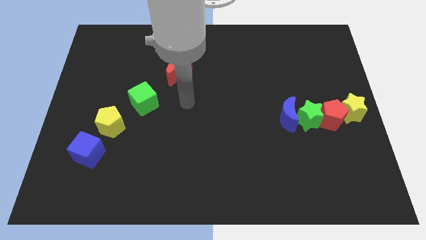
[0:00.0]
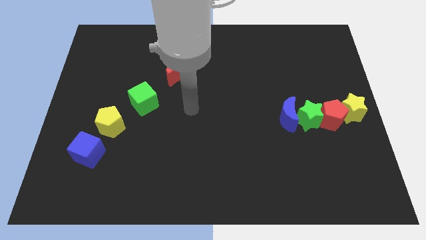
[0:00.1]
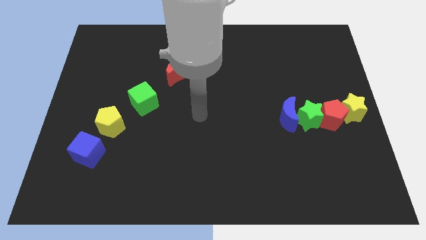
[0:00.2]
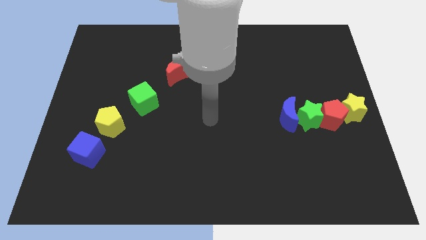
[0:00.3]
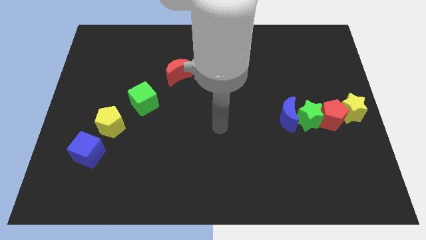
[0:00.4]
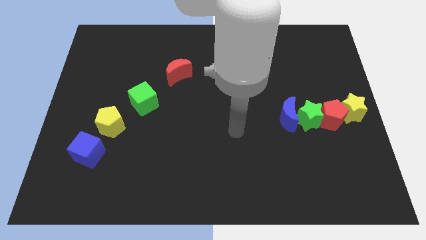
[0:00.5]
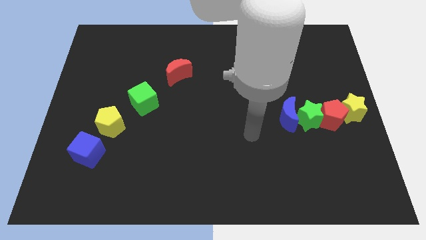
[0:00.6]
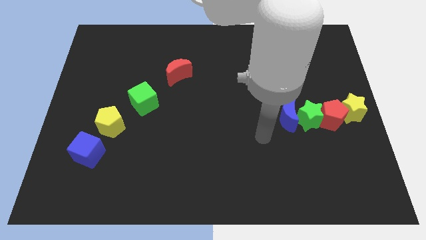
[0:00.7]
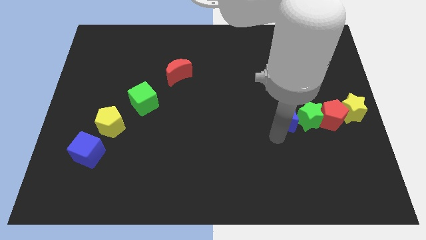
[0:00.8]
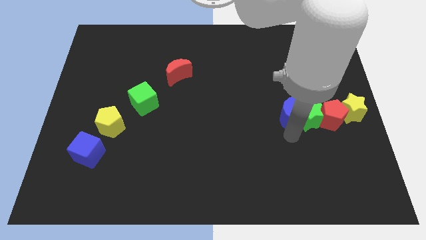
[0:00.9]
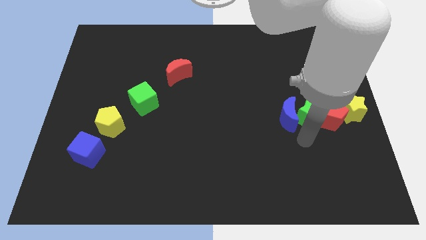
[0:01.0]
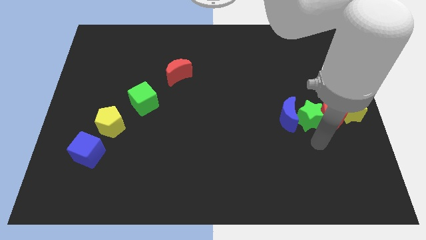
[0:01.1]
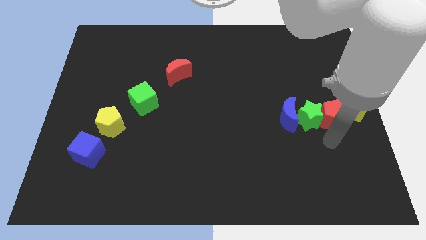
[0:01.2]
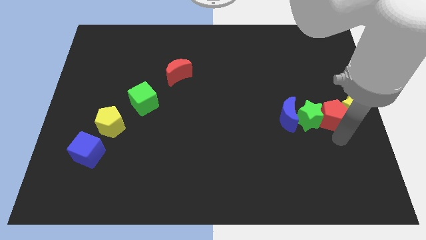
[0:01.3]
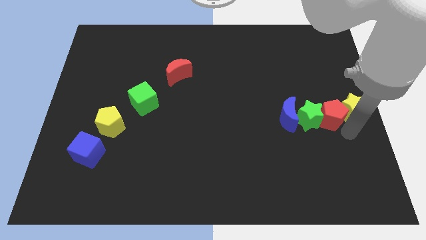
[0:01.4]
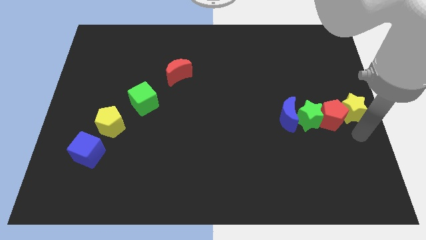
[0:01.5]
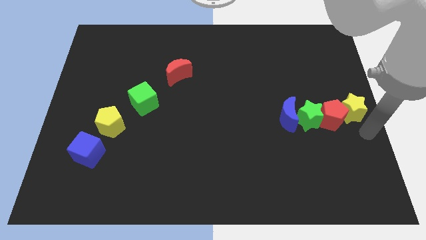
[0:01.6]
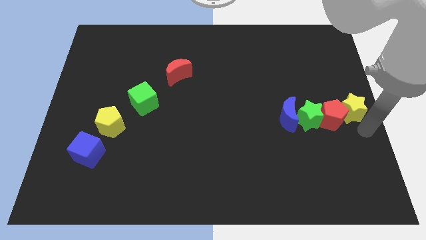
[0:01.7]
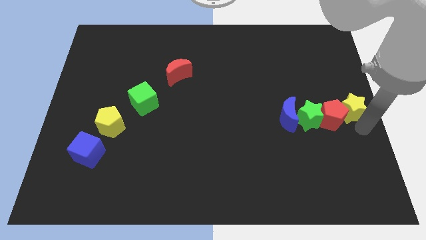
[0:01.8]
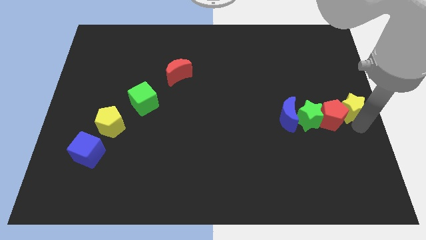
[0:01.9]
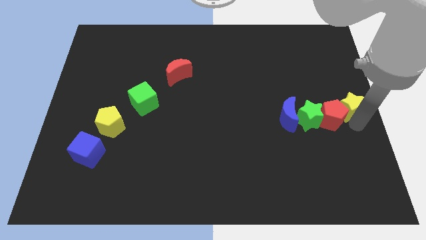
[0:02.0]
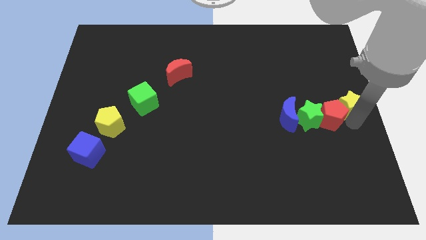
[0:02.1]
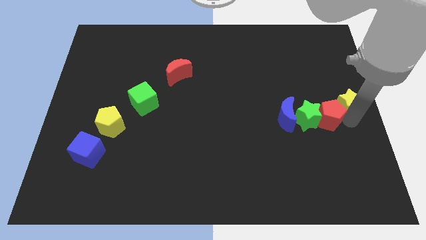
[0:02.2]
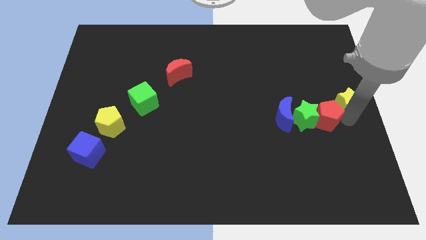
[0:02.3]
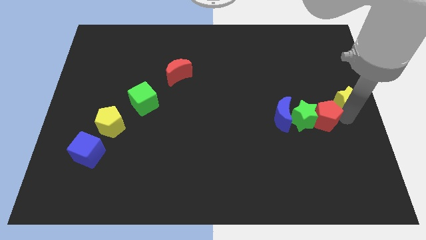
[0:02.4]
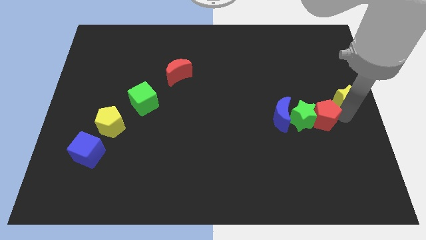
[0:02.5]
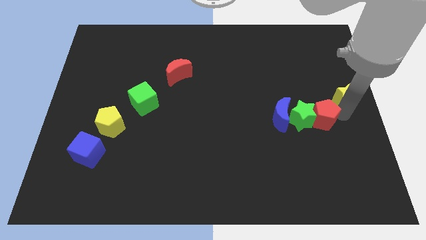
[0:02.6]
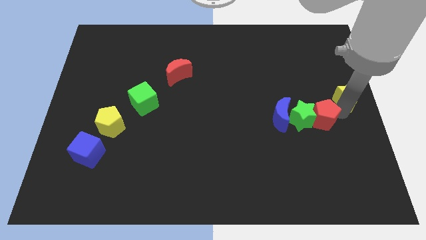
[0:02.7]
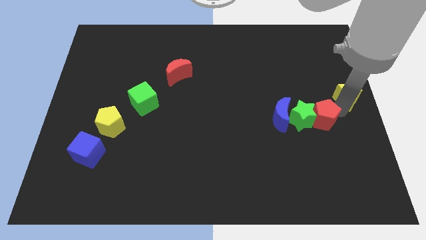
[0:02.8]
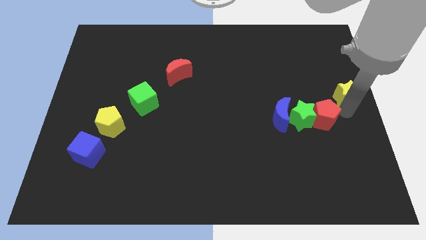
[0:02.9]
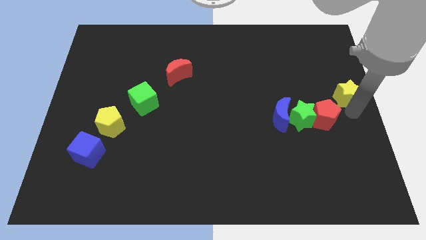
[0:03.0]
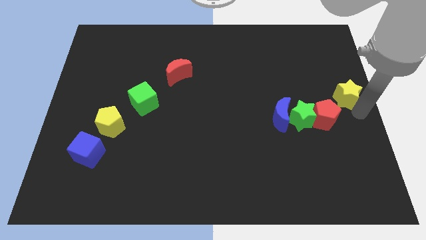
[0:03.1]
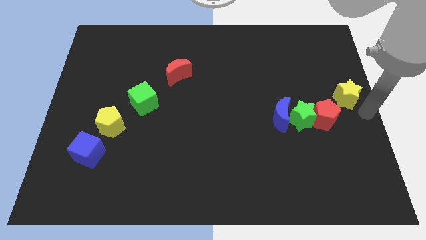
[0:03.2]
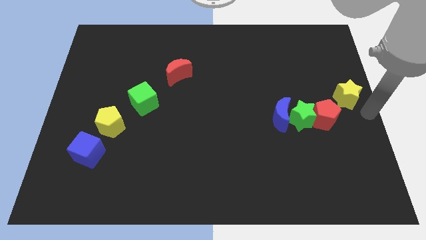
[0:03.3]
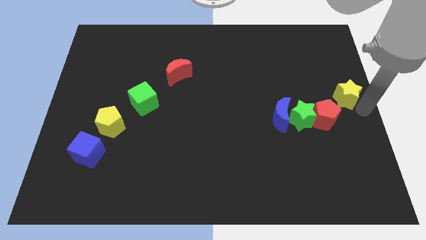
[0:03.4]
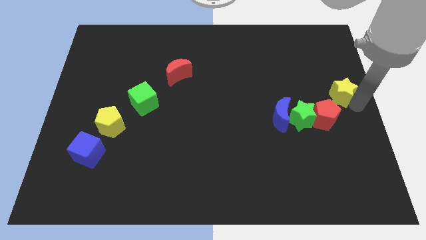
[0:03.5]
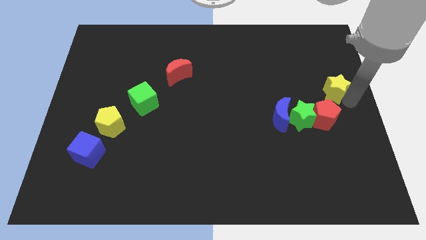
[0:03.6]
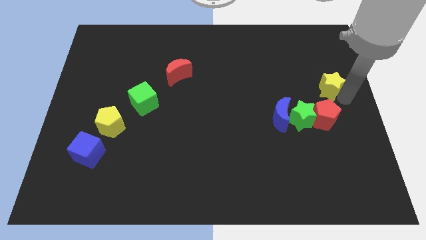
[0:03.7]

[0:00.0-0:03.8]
push the yellow star somewhat up and to the left

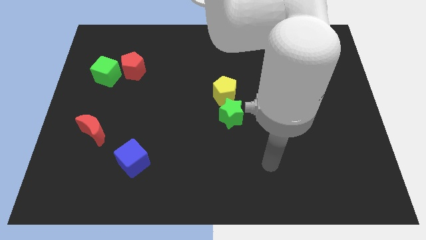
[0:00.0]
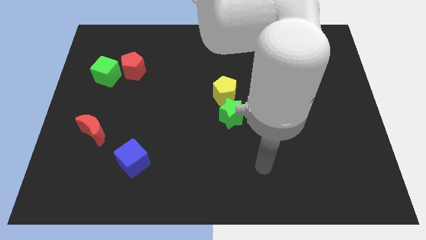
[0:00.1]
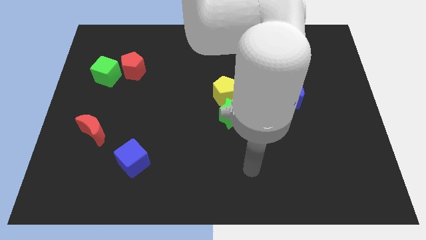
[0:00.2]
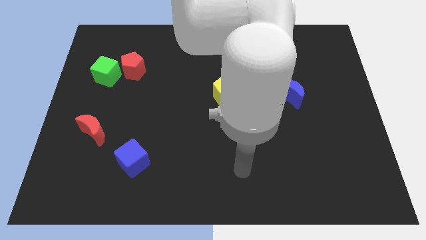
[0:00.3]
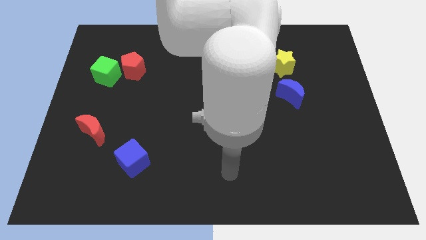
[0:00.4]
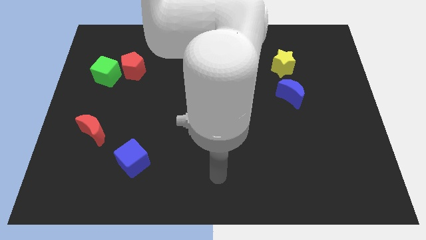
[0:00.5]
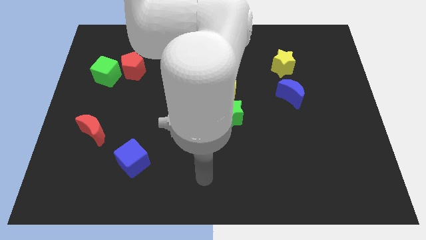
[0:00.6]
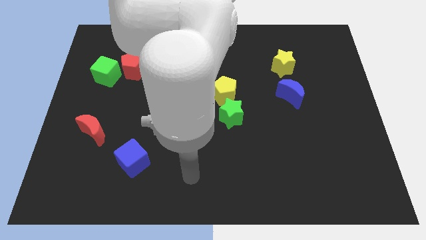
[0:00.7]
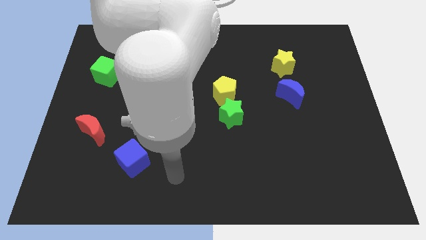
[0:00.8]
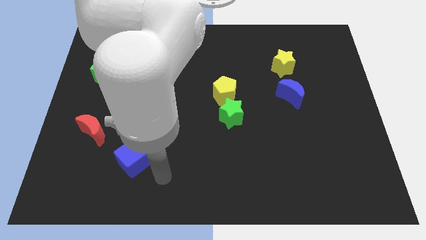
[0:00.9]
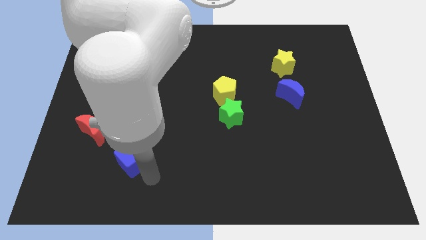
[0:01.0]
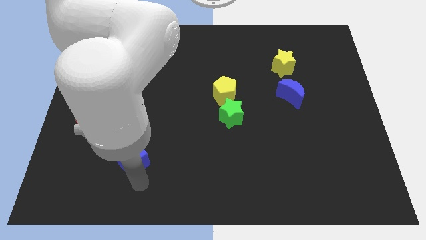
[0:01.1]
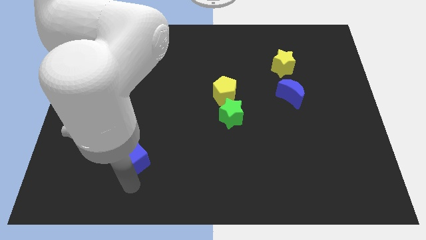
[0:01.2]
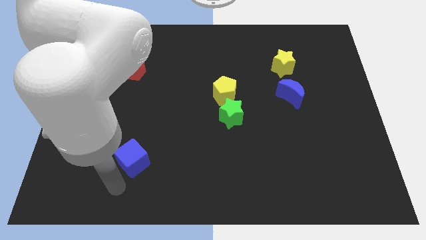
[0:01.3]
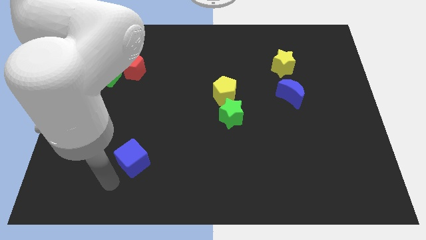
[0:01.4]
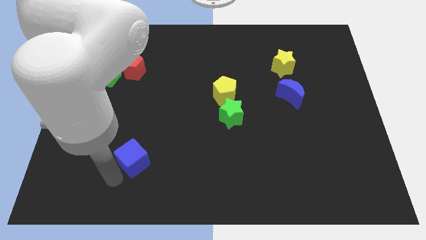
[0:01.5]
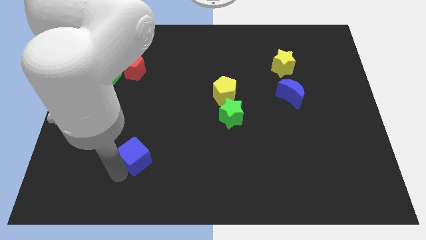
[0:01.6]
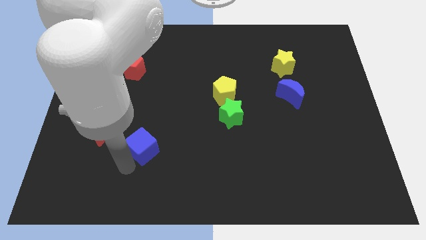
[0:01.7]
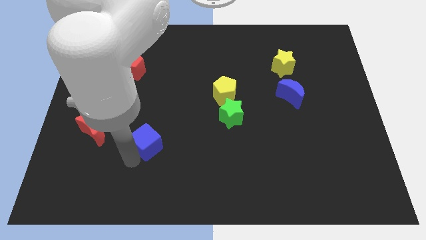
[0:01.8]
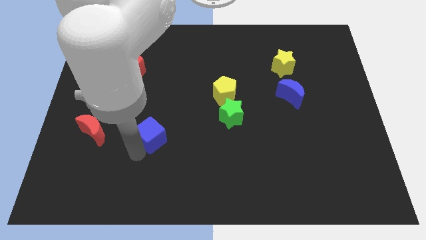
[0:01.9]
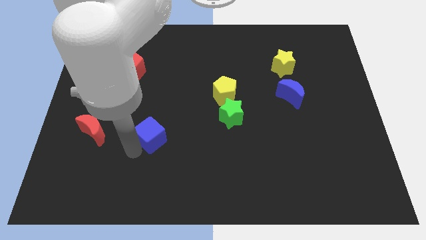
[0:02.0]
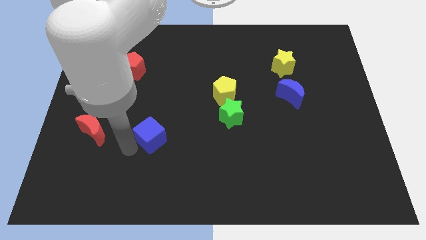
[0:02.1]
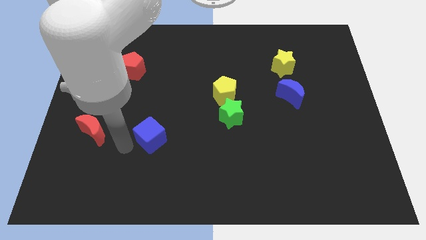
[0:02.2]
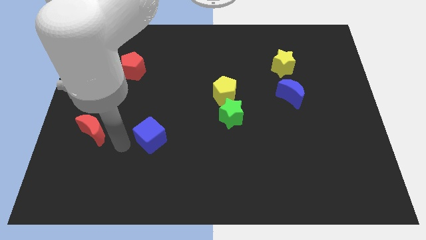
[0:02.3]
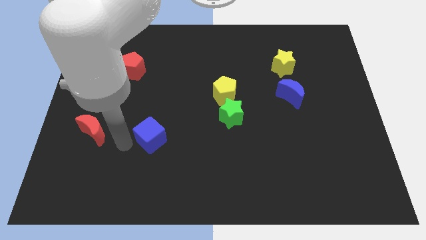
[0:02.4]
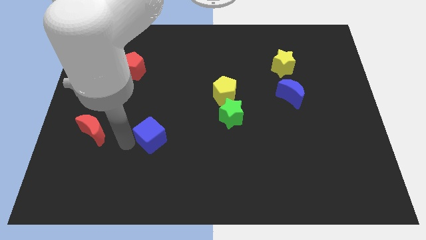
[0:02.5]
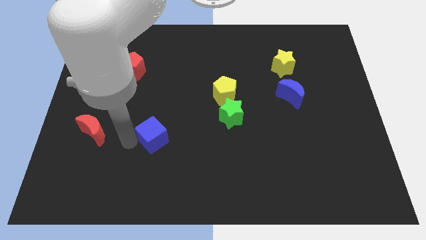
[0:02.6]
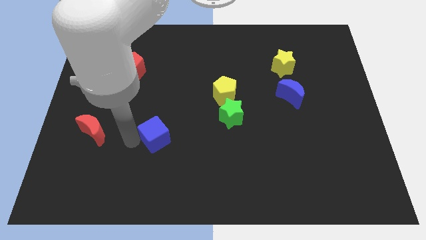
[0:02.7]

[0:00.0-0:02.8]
slightly slide the blue cube upwards and then to the right

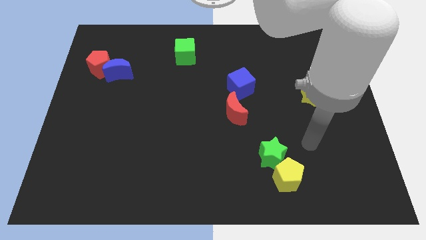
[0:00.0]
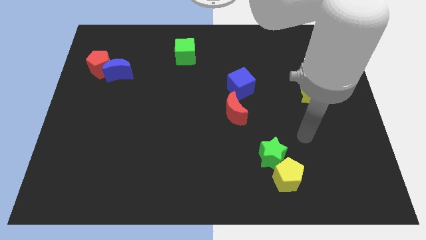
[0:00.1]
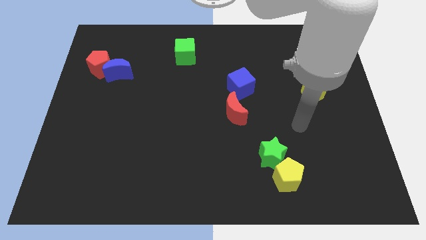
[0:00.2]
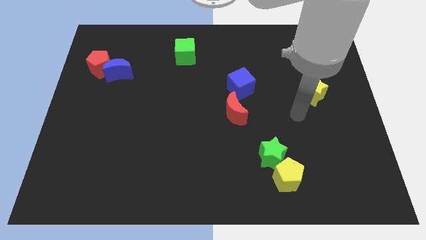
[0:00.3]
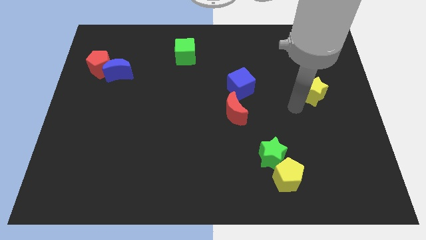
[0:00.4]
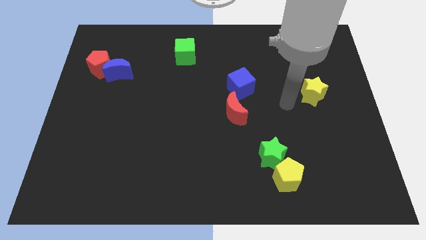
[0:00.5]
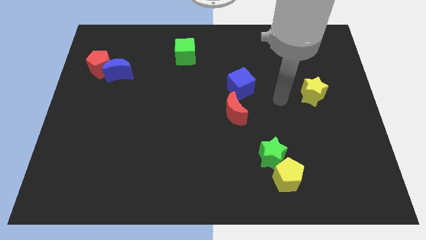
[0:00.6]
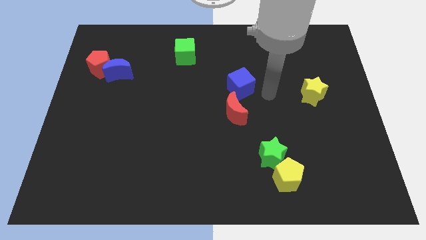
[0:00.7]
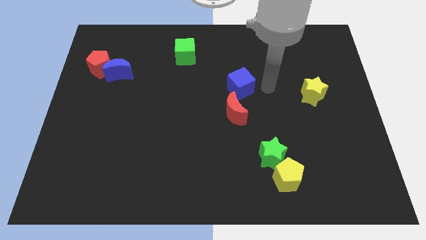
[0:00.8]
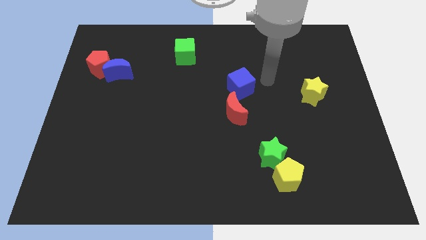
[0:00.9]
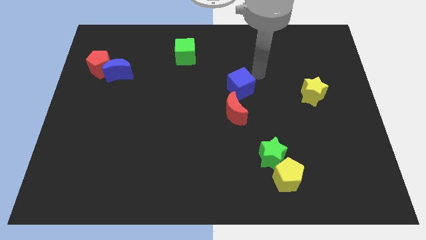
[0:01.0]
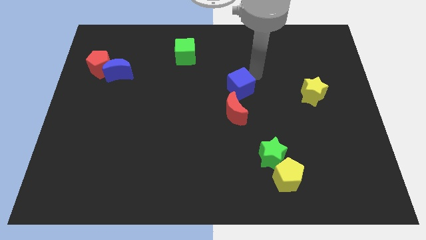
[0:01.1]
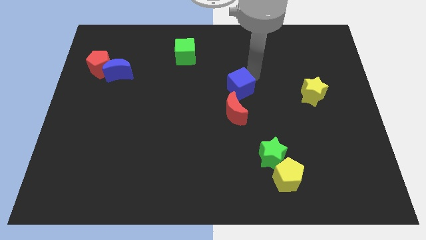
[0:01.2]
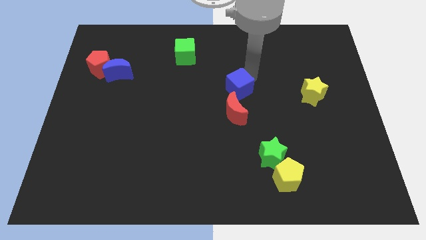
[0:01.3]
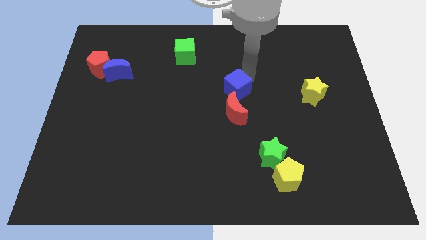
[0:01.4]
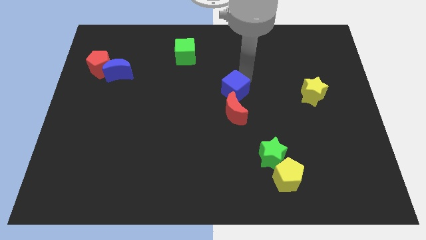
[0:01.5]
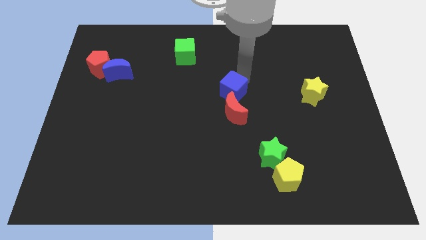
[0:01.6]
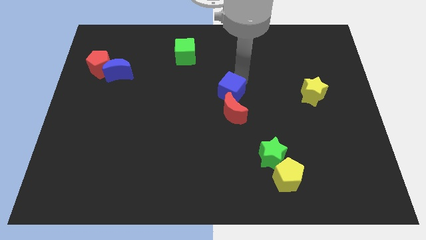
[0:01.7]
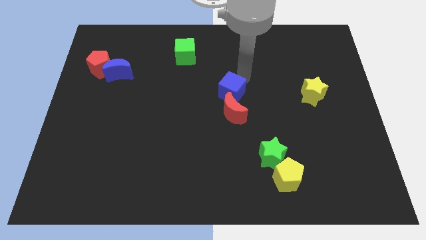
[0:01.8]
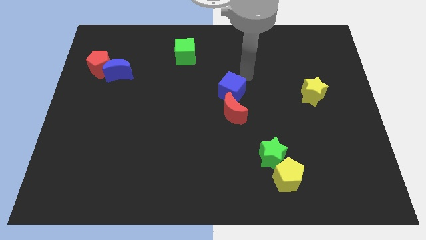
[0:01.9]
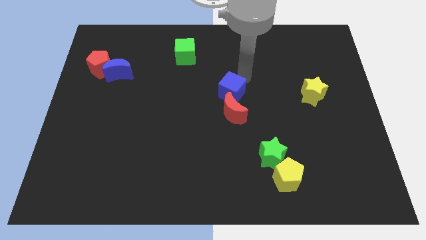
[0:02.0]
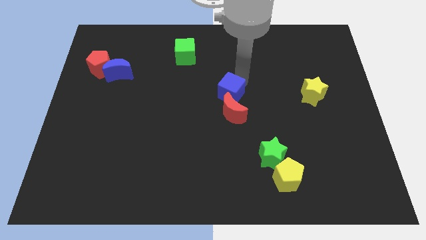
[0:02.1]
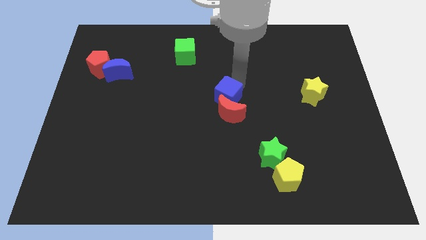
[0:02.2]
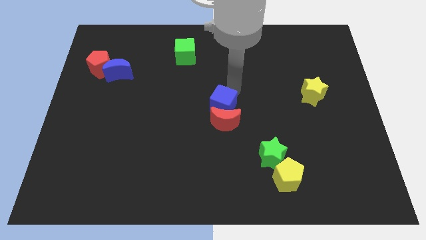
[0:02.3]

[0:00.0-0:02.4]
slightly move the blue cube down and left diagonally
